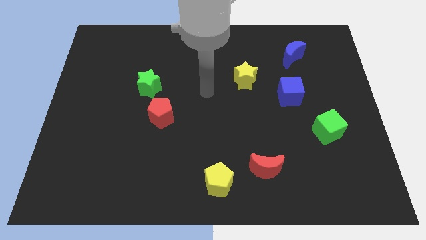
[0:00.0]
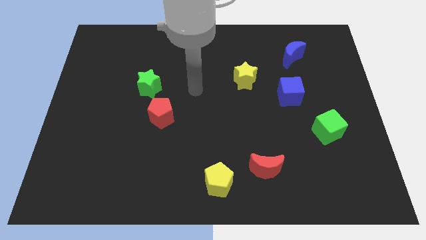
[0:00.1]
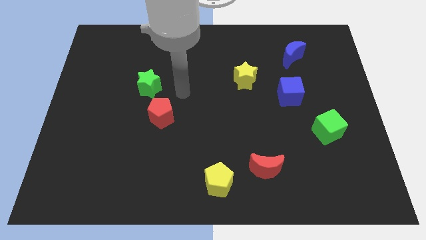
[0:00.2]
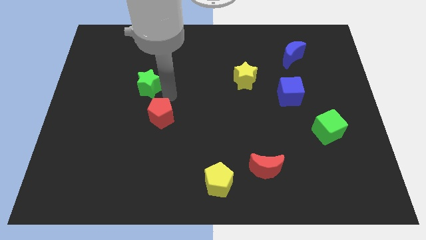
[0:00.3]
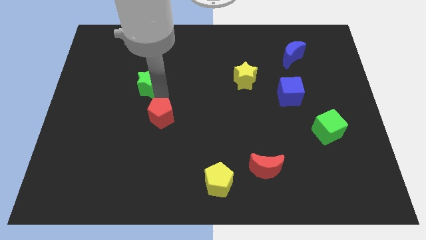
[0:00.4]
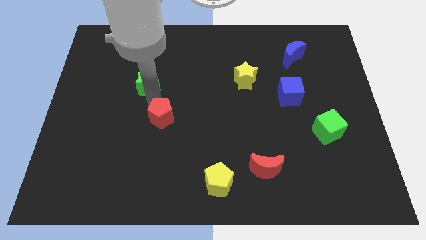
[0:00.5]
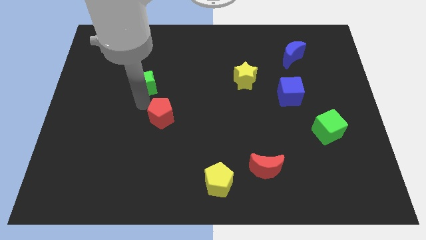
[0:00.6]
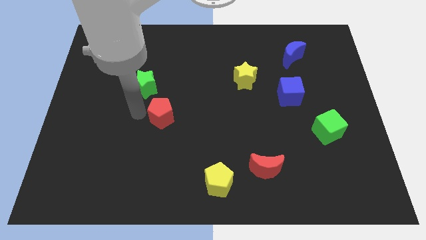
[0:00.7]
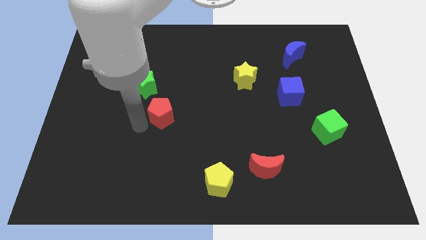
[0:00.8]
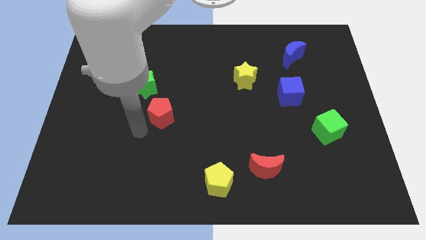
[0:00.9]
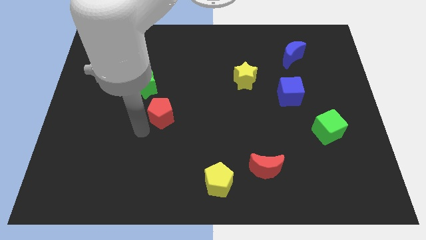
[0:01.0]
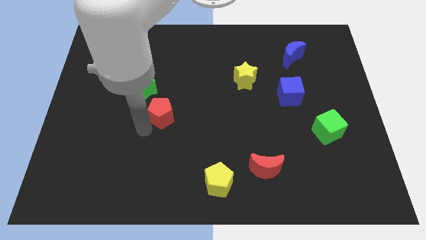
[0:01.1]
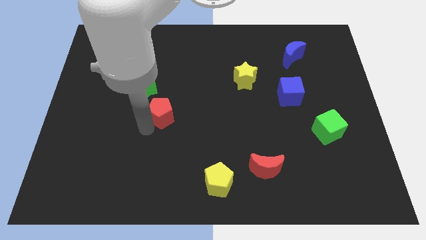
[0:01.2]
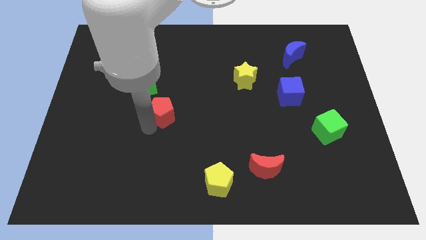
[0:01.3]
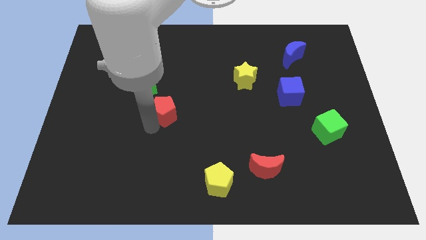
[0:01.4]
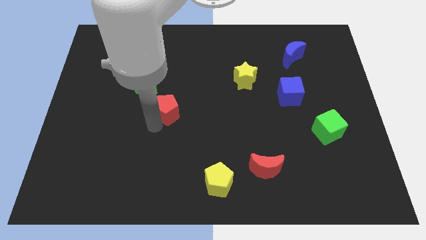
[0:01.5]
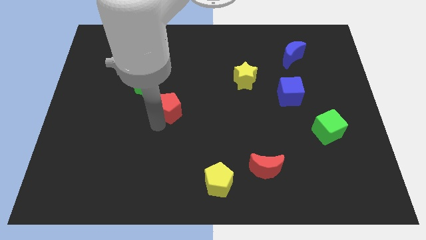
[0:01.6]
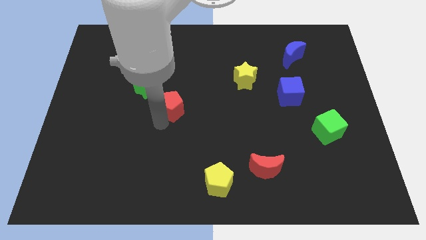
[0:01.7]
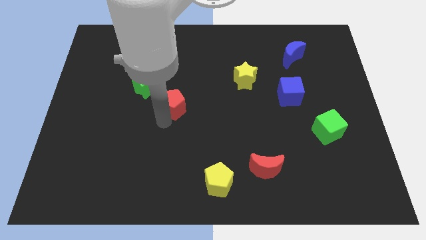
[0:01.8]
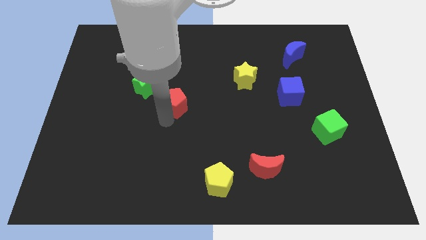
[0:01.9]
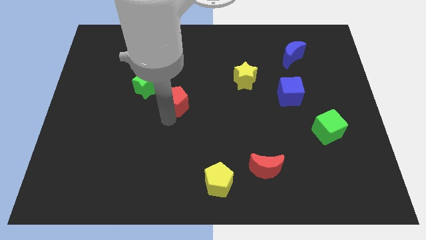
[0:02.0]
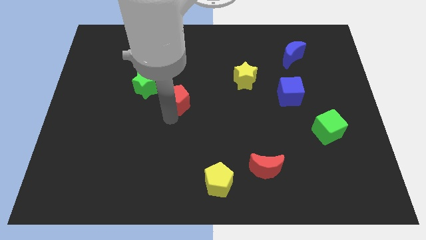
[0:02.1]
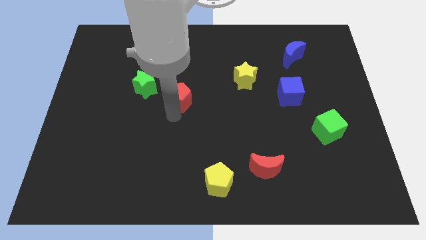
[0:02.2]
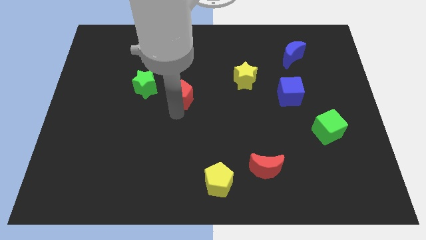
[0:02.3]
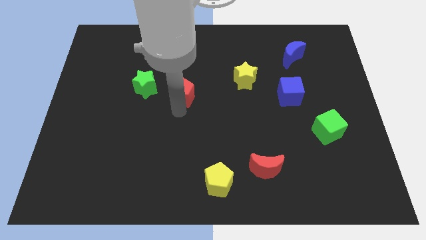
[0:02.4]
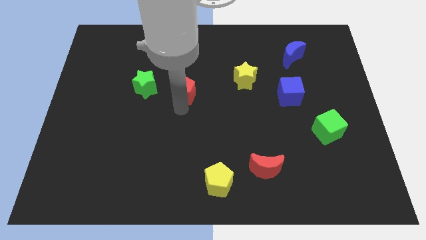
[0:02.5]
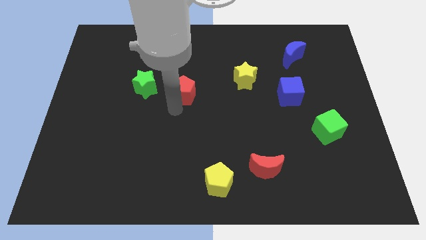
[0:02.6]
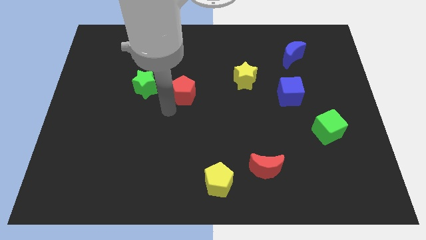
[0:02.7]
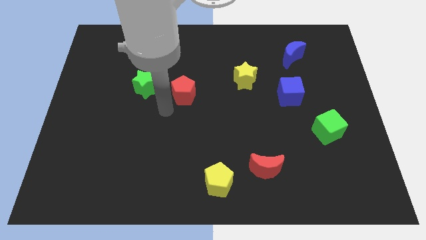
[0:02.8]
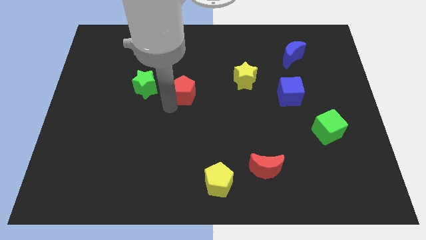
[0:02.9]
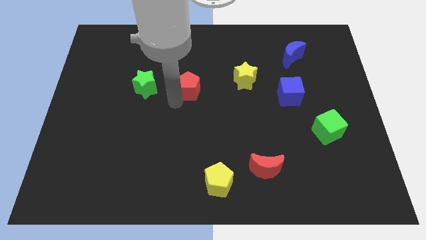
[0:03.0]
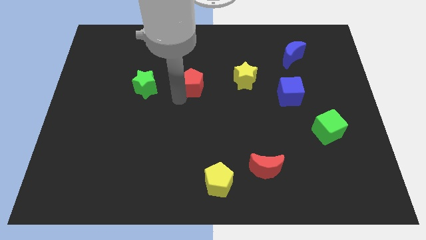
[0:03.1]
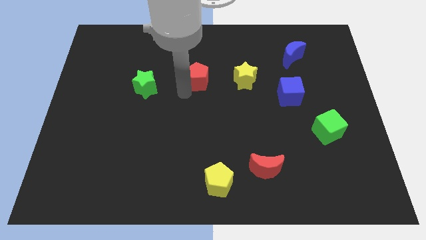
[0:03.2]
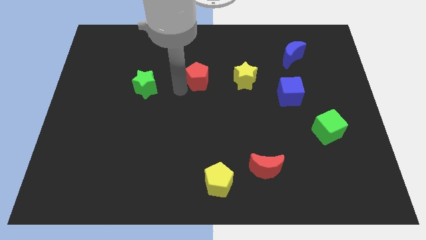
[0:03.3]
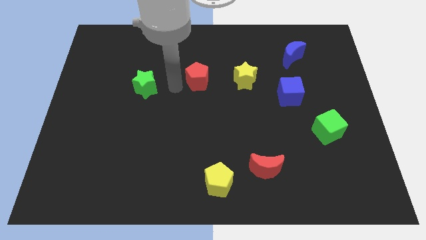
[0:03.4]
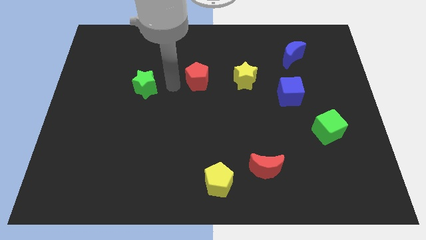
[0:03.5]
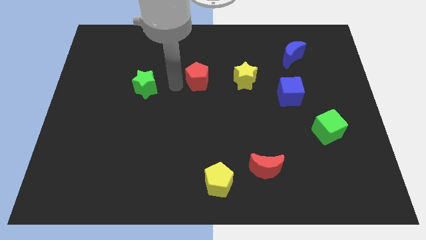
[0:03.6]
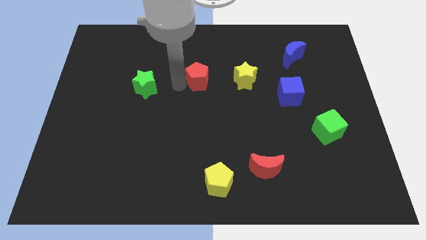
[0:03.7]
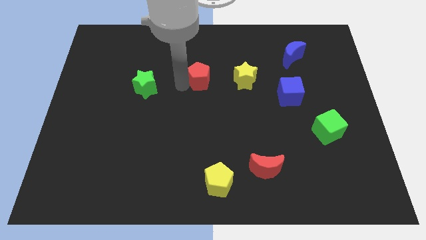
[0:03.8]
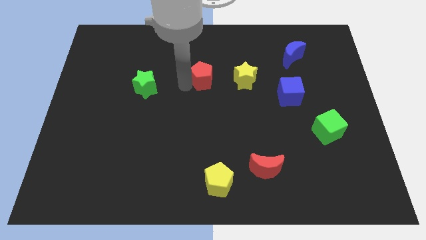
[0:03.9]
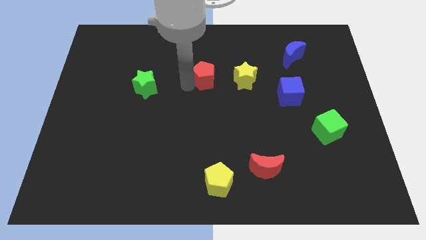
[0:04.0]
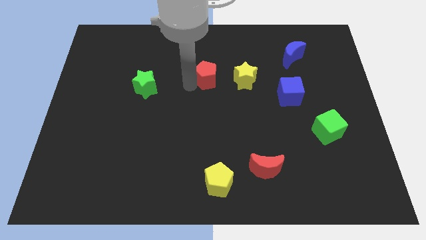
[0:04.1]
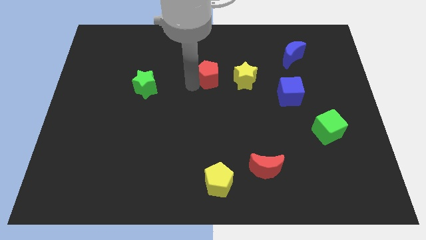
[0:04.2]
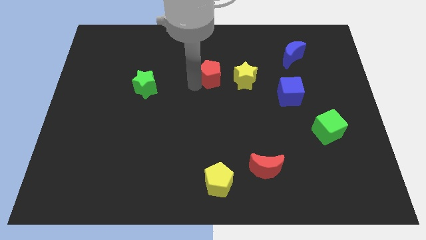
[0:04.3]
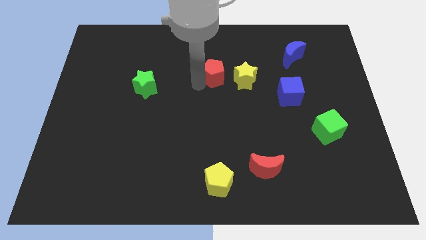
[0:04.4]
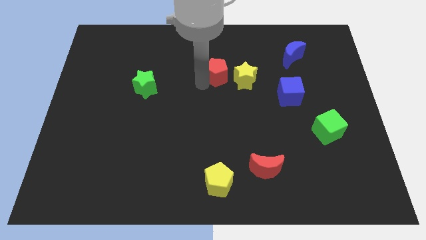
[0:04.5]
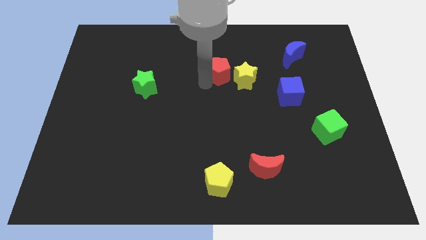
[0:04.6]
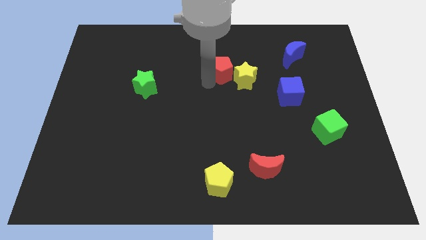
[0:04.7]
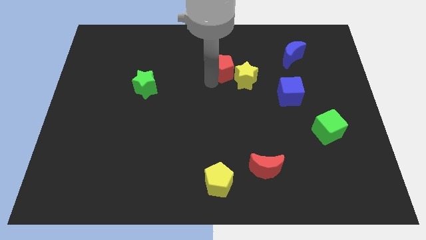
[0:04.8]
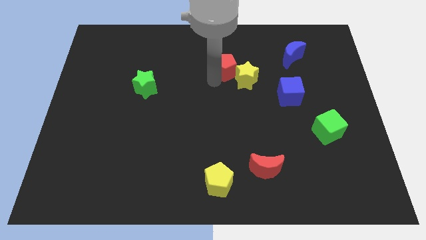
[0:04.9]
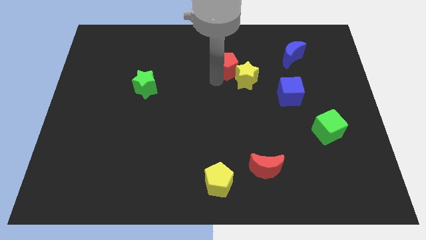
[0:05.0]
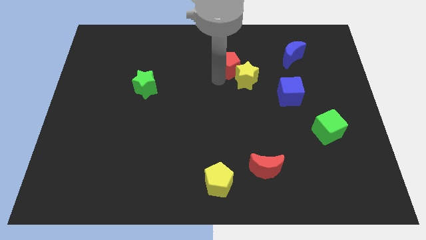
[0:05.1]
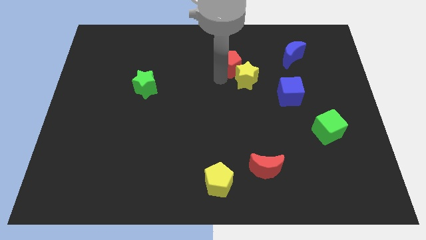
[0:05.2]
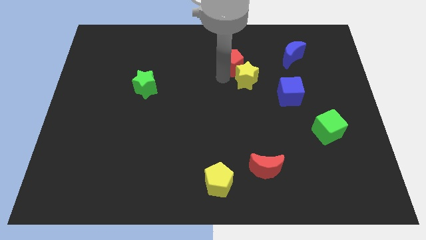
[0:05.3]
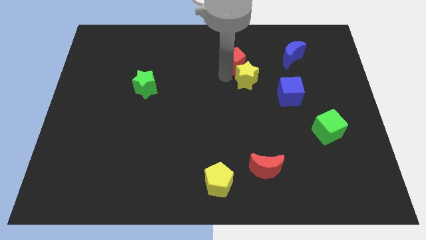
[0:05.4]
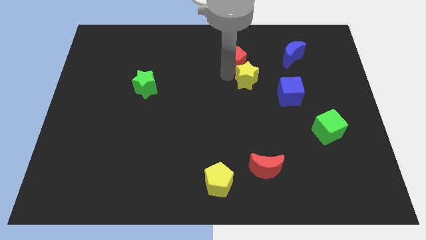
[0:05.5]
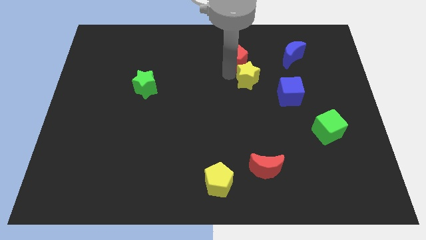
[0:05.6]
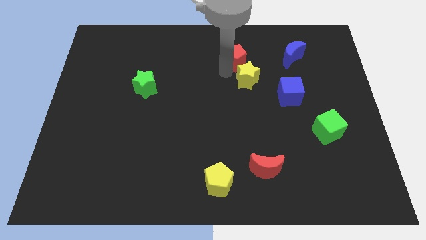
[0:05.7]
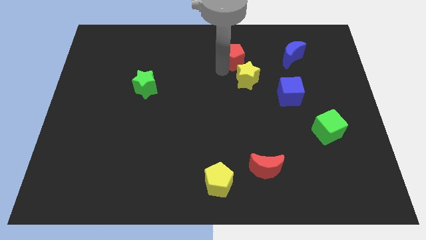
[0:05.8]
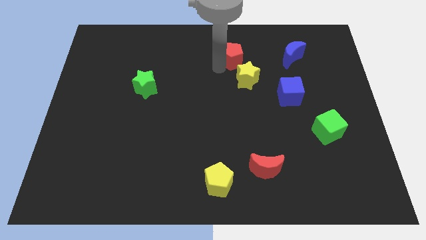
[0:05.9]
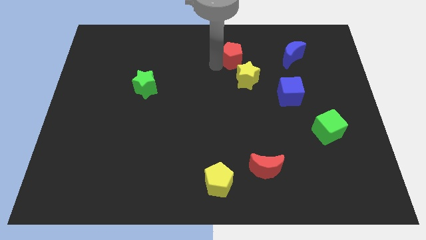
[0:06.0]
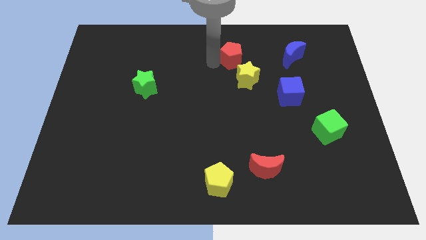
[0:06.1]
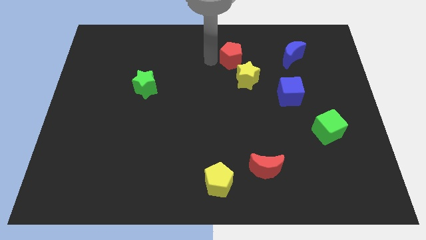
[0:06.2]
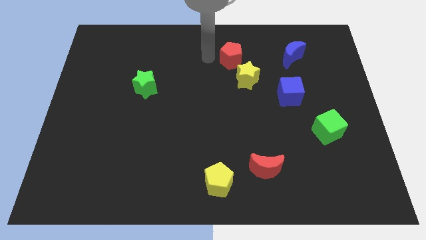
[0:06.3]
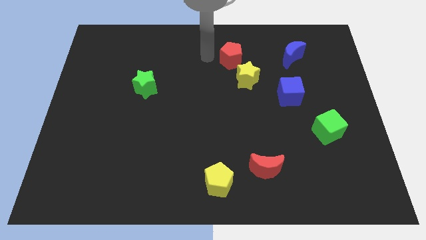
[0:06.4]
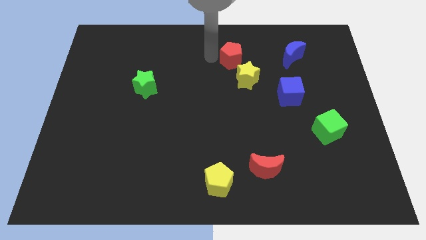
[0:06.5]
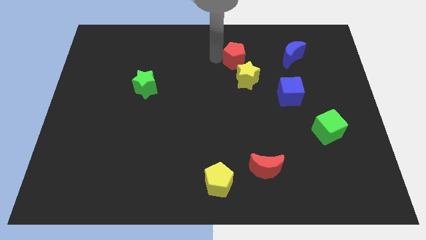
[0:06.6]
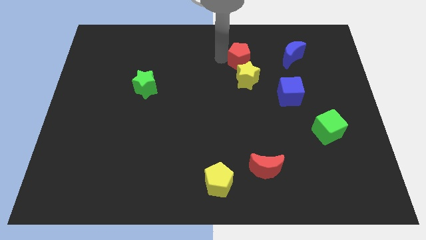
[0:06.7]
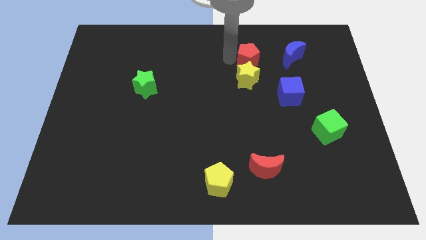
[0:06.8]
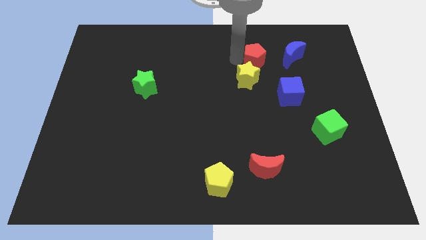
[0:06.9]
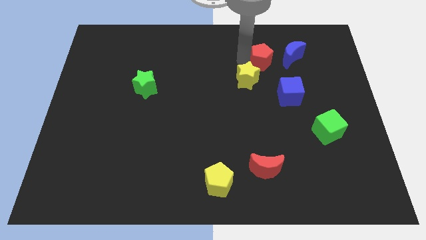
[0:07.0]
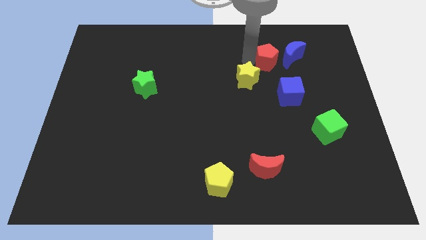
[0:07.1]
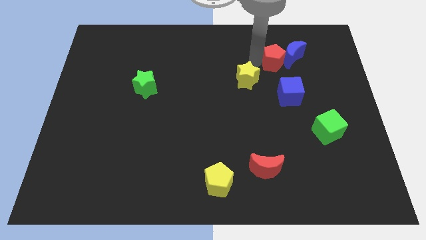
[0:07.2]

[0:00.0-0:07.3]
move the red pentagon close to the blue moon

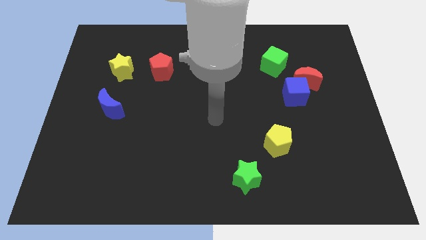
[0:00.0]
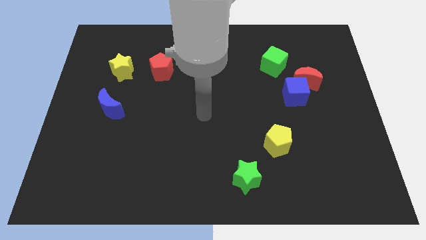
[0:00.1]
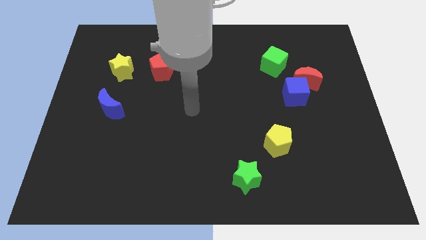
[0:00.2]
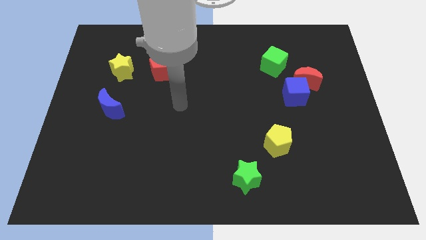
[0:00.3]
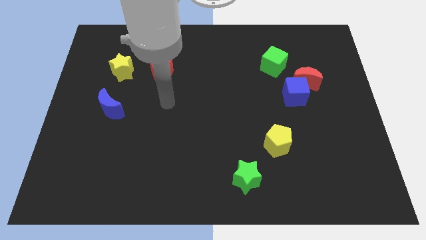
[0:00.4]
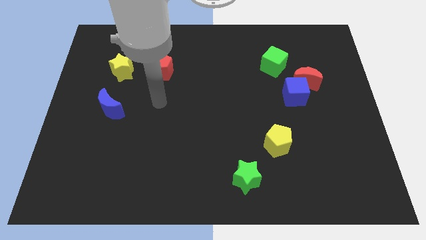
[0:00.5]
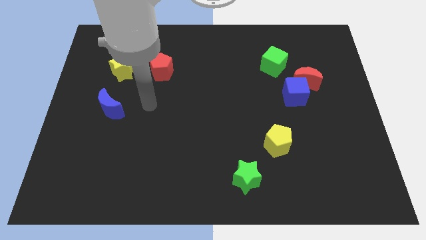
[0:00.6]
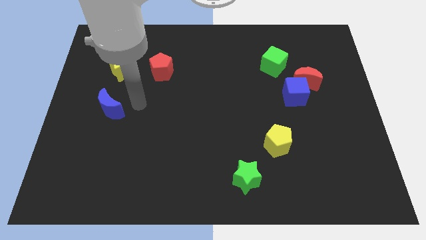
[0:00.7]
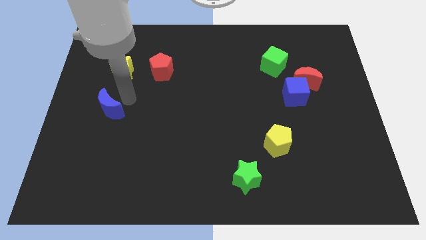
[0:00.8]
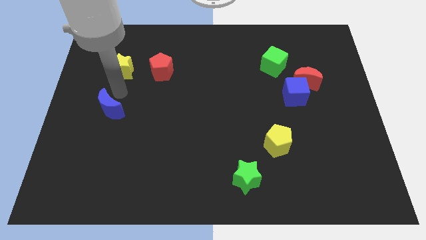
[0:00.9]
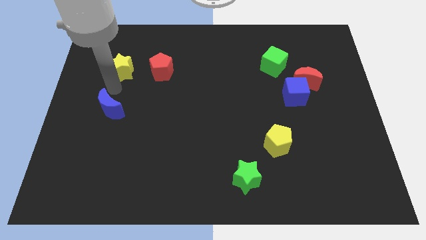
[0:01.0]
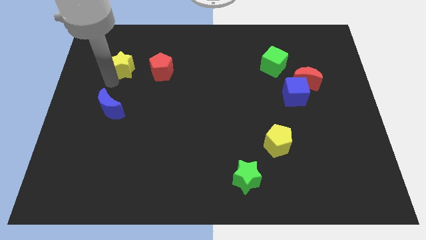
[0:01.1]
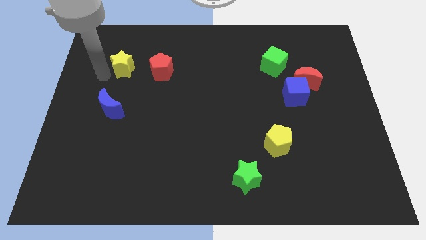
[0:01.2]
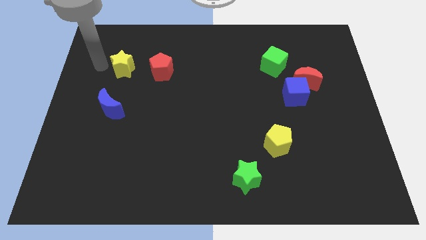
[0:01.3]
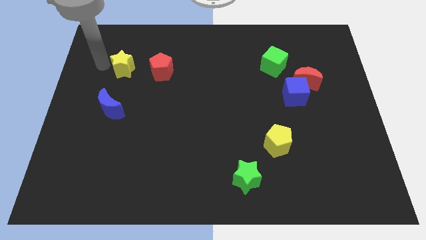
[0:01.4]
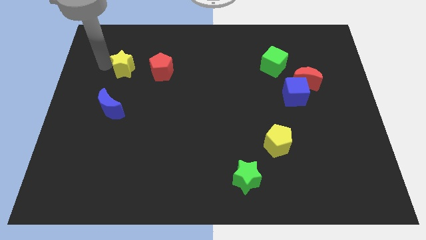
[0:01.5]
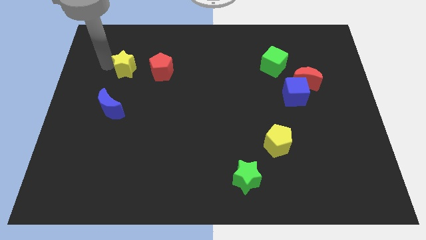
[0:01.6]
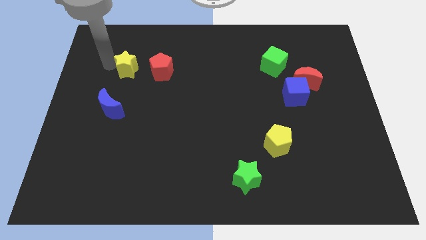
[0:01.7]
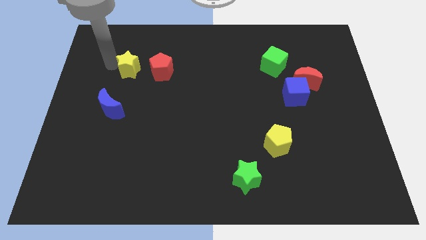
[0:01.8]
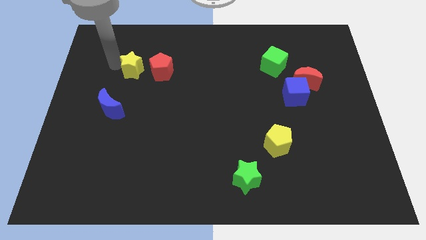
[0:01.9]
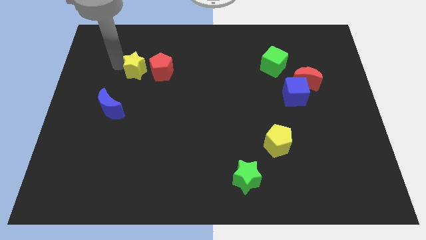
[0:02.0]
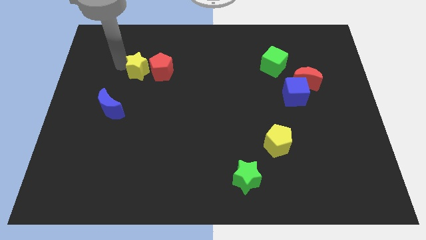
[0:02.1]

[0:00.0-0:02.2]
move the yellow star next to the red pentagon
